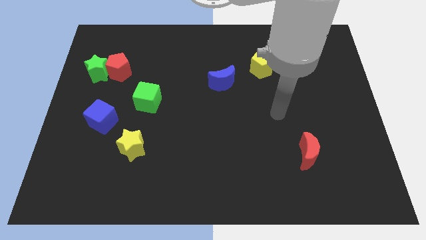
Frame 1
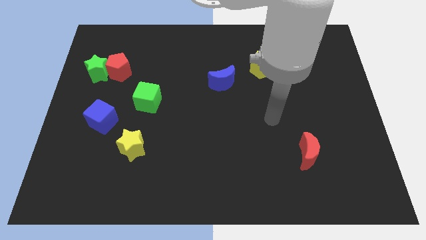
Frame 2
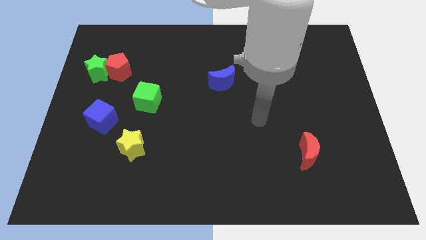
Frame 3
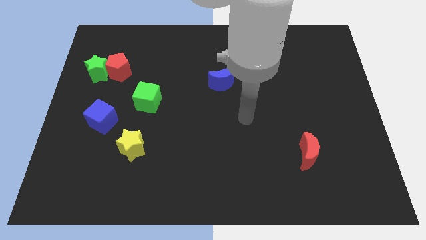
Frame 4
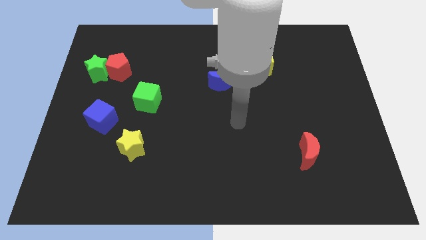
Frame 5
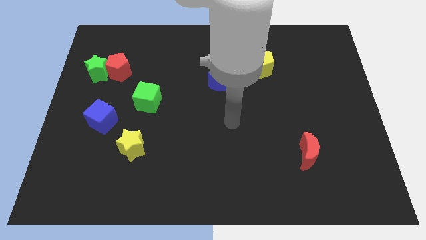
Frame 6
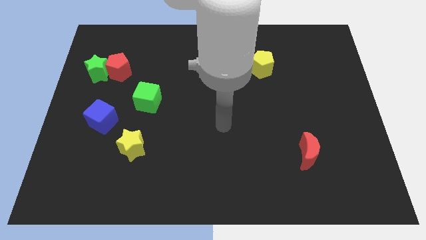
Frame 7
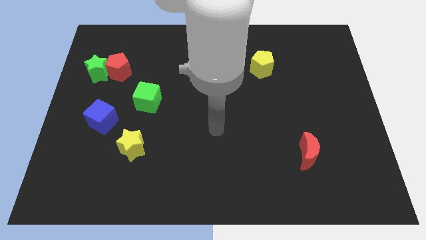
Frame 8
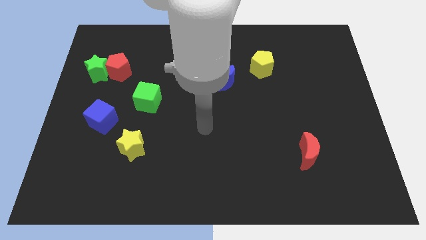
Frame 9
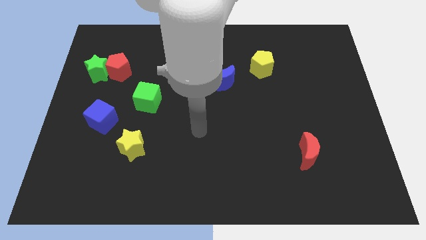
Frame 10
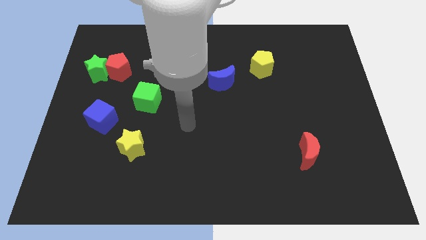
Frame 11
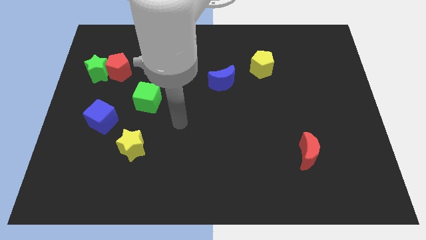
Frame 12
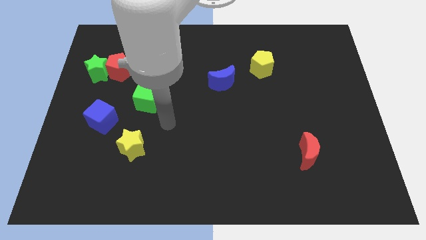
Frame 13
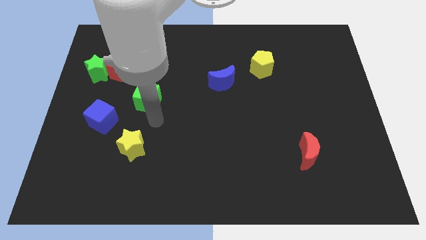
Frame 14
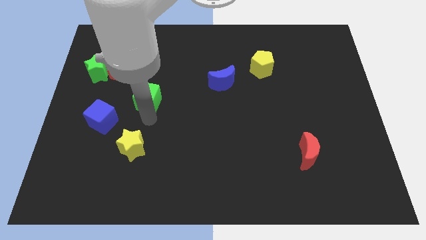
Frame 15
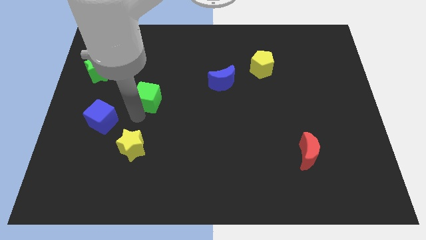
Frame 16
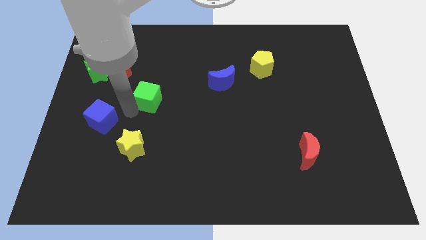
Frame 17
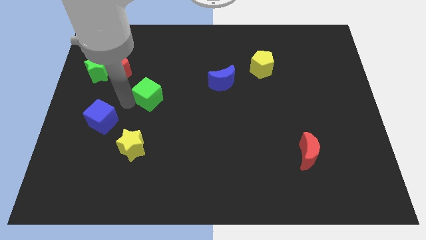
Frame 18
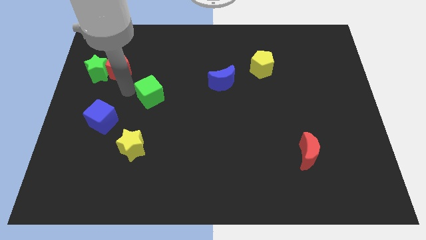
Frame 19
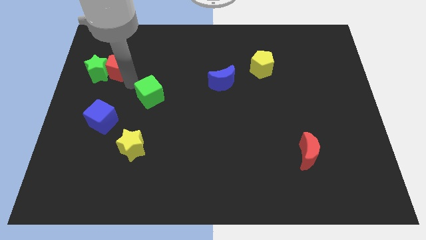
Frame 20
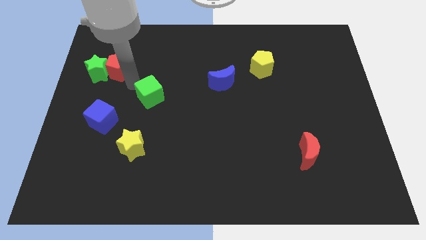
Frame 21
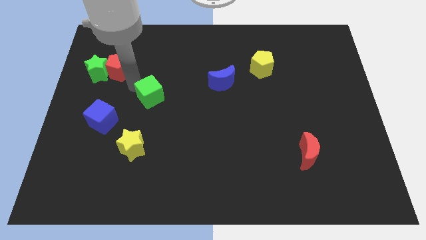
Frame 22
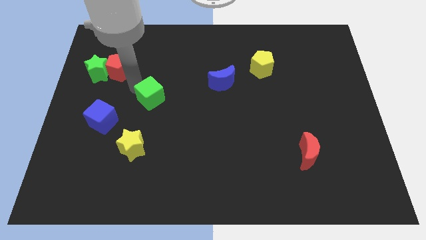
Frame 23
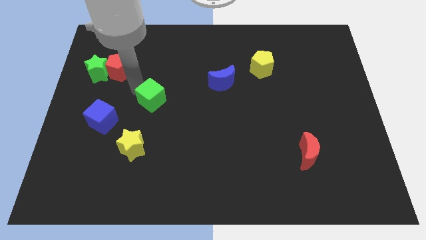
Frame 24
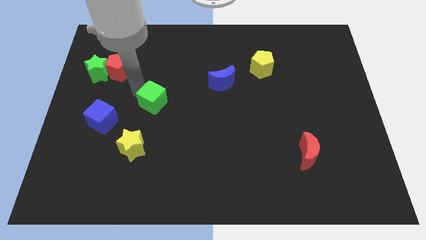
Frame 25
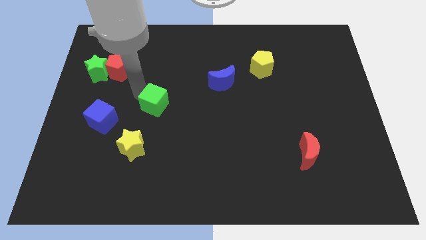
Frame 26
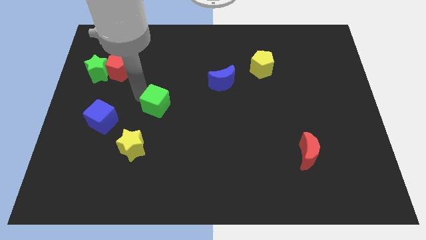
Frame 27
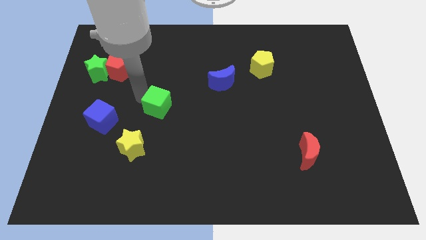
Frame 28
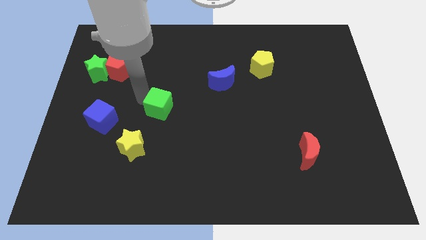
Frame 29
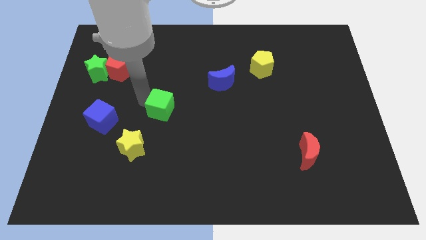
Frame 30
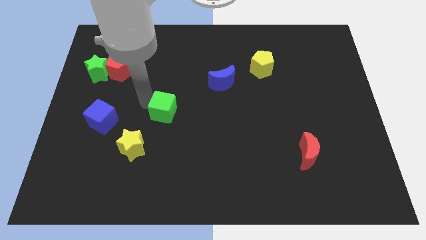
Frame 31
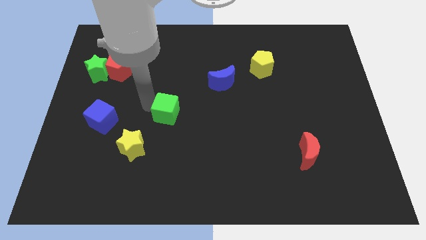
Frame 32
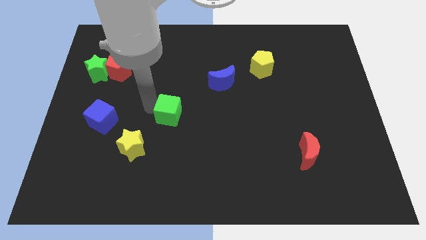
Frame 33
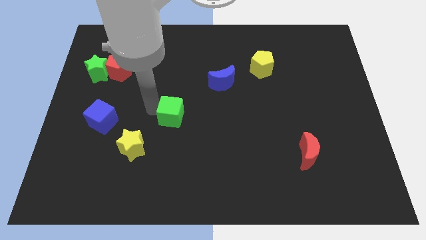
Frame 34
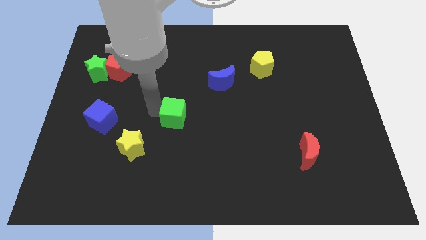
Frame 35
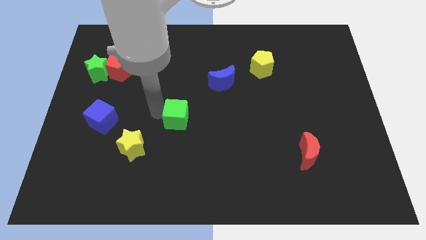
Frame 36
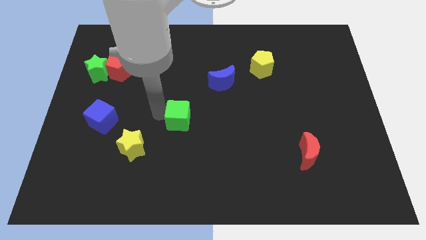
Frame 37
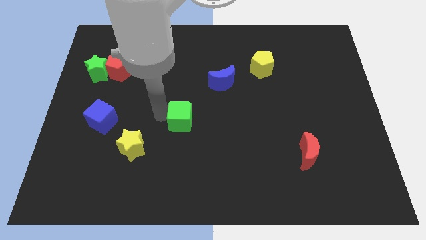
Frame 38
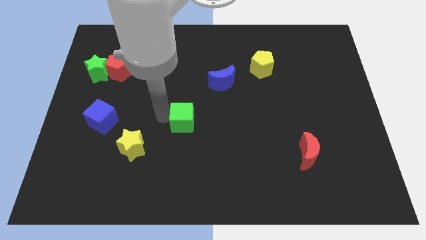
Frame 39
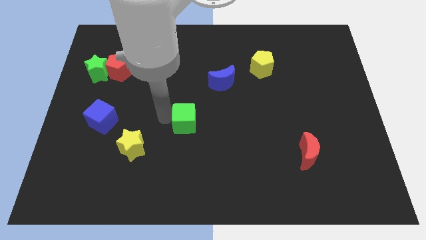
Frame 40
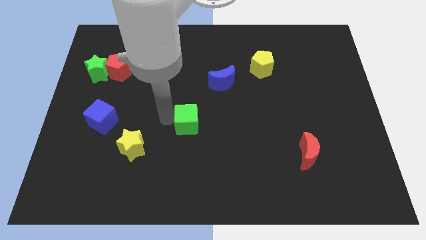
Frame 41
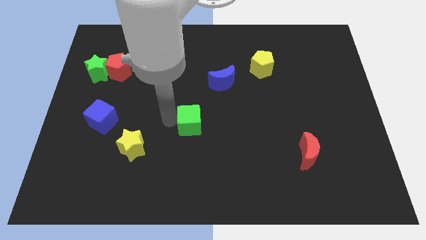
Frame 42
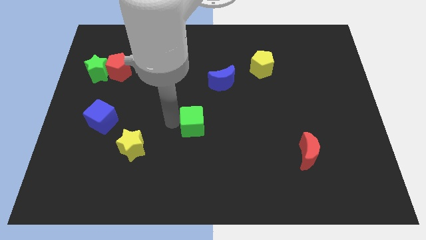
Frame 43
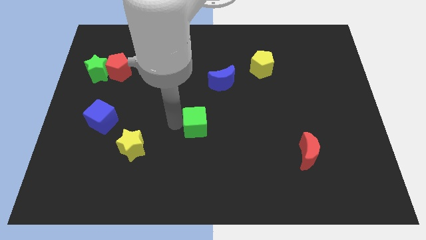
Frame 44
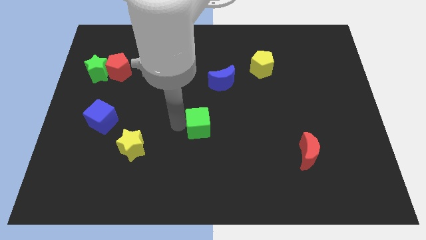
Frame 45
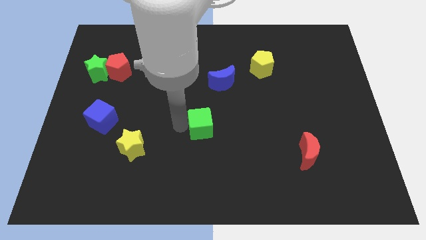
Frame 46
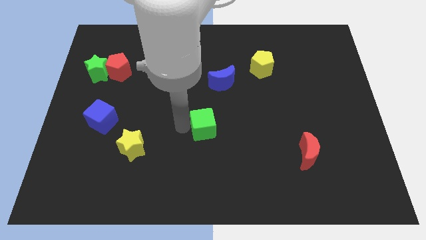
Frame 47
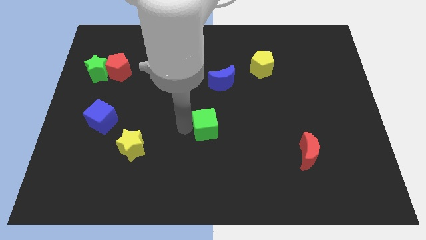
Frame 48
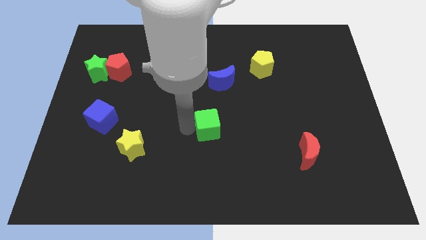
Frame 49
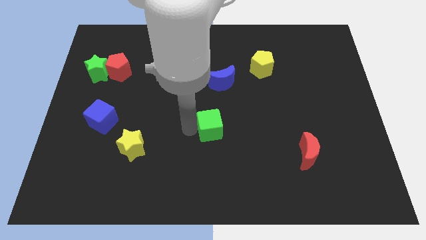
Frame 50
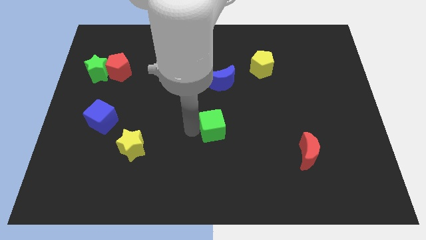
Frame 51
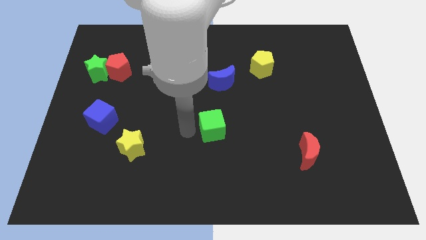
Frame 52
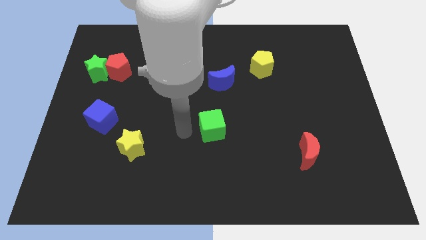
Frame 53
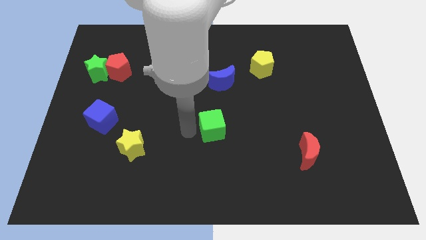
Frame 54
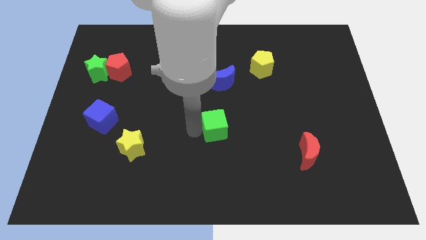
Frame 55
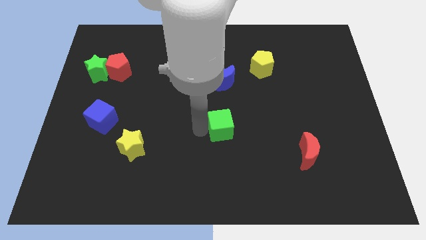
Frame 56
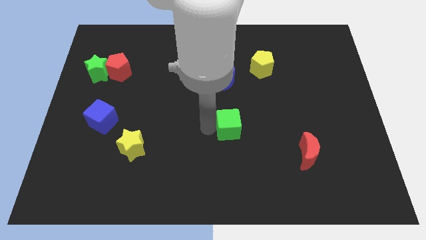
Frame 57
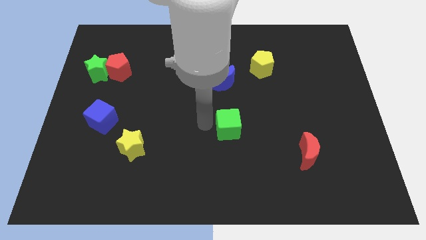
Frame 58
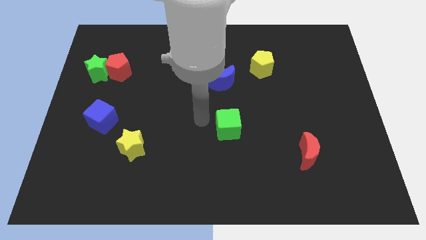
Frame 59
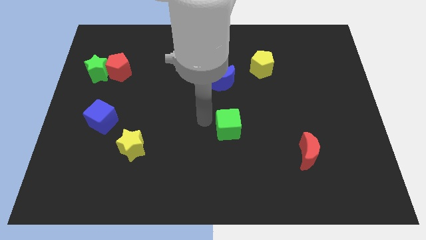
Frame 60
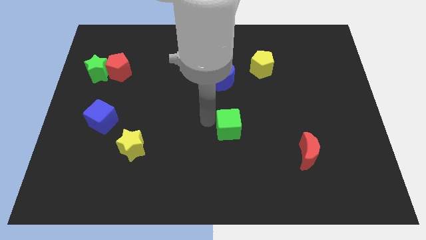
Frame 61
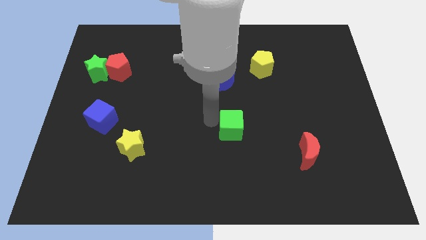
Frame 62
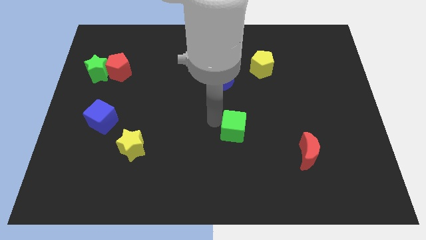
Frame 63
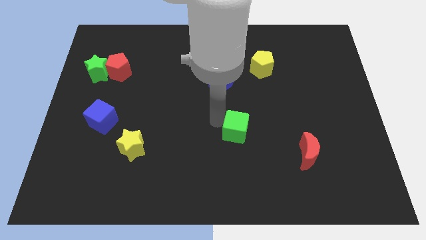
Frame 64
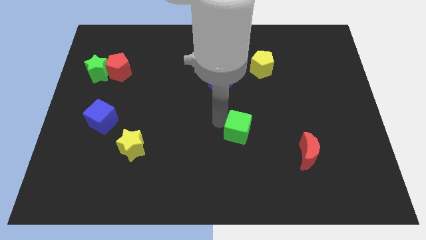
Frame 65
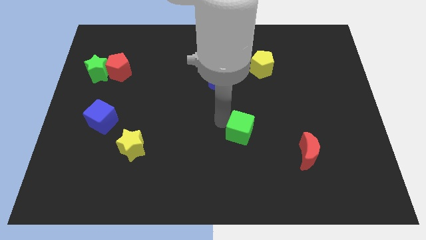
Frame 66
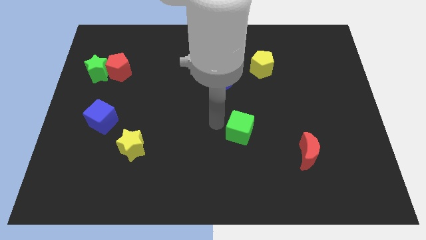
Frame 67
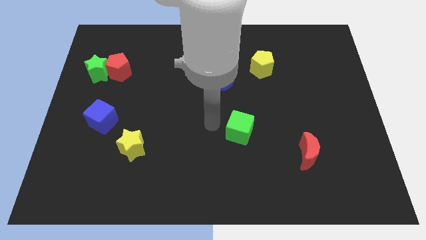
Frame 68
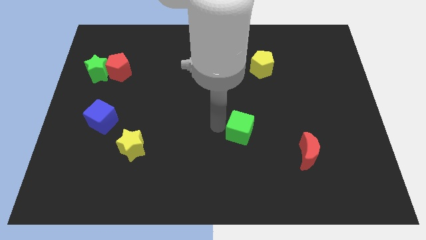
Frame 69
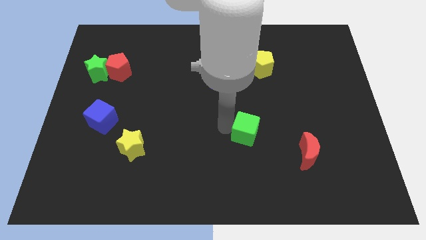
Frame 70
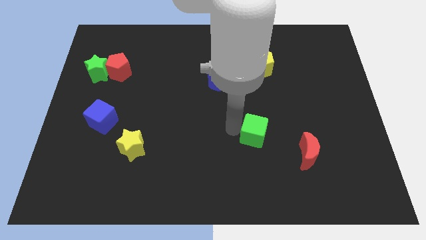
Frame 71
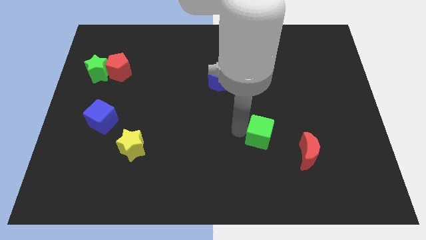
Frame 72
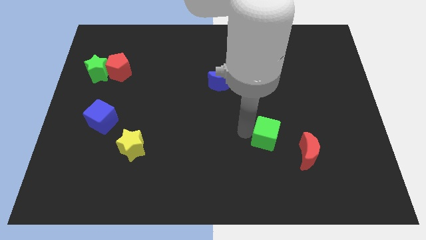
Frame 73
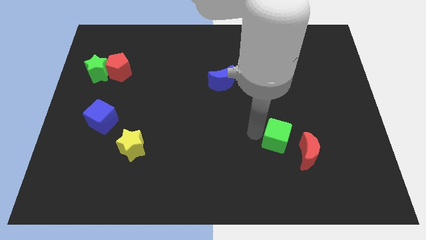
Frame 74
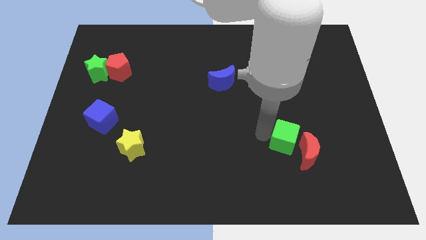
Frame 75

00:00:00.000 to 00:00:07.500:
put the green cube close to the red moon
